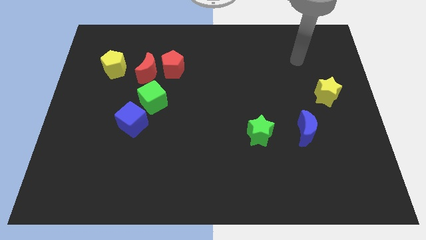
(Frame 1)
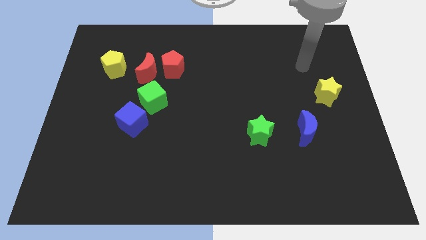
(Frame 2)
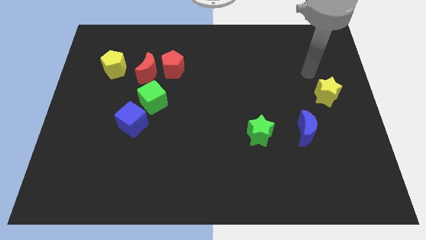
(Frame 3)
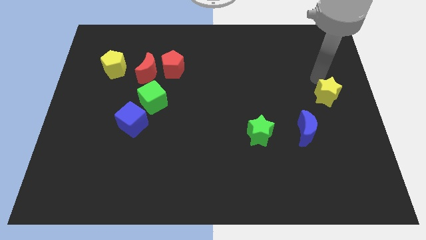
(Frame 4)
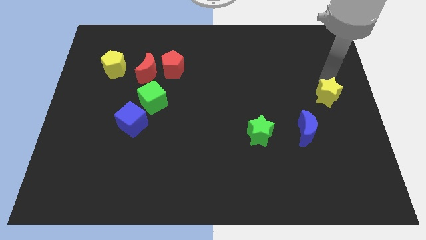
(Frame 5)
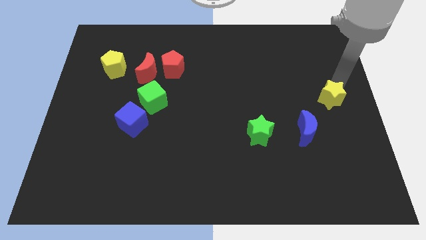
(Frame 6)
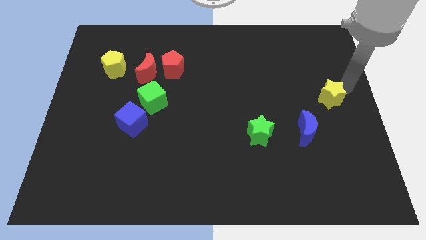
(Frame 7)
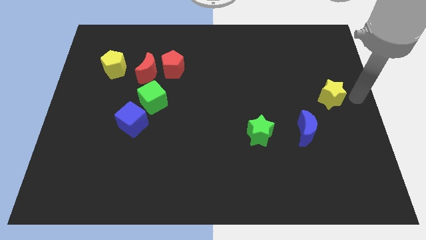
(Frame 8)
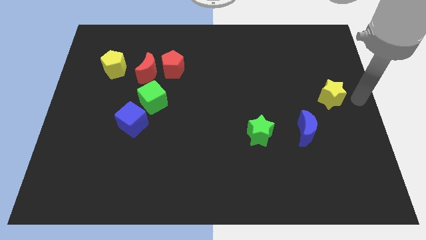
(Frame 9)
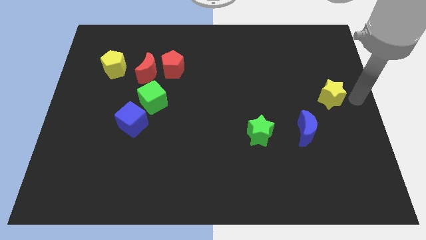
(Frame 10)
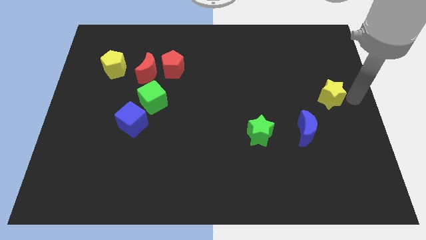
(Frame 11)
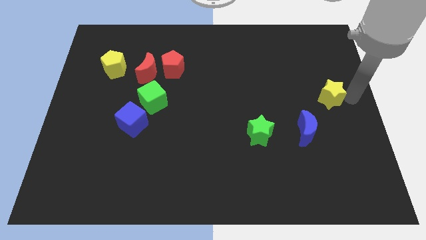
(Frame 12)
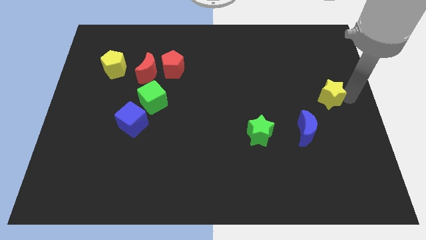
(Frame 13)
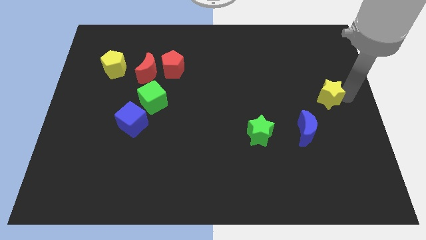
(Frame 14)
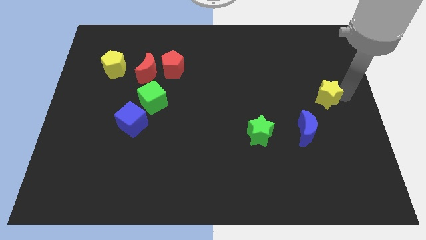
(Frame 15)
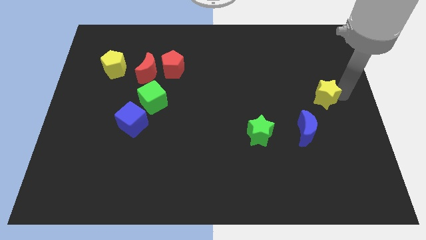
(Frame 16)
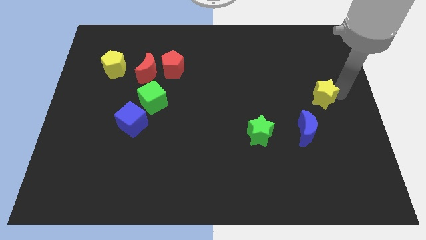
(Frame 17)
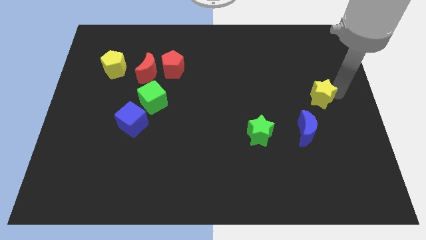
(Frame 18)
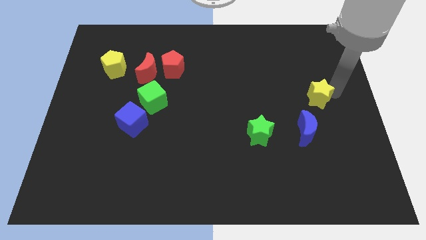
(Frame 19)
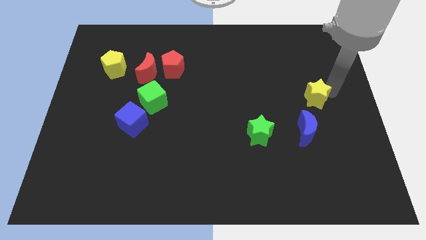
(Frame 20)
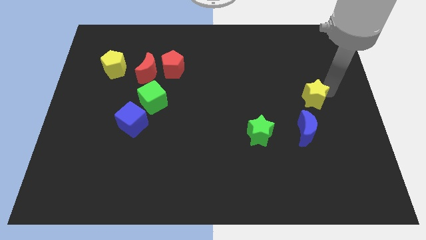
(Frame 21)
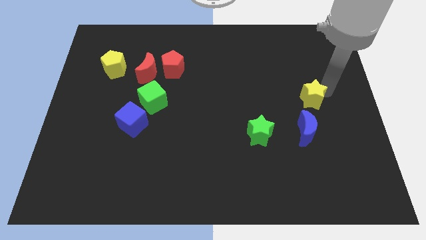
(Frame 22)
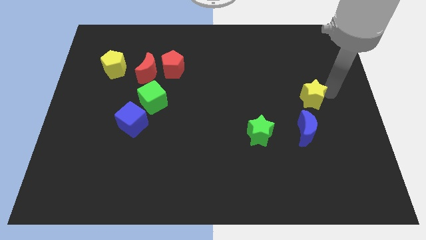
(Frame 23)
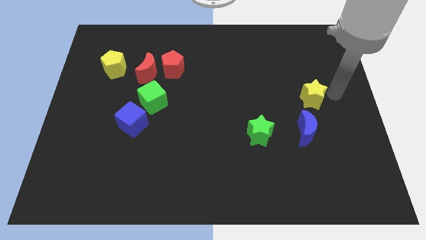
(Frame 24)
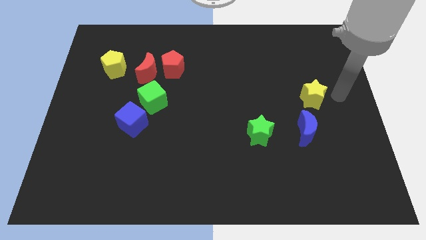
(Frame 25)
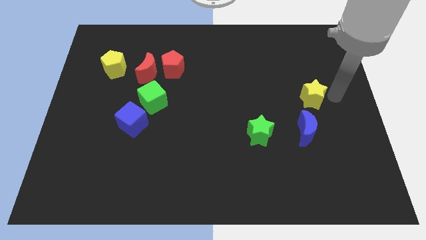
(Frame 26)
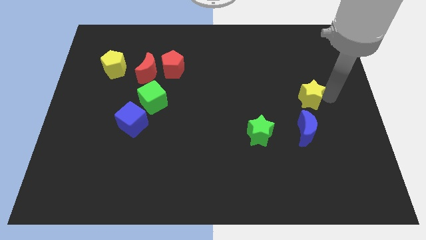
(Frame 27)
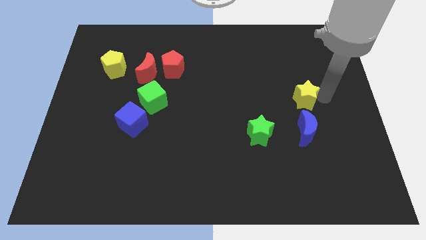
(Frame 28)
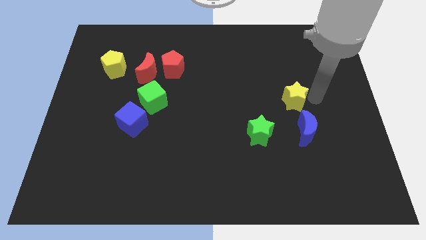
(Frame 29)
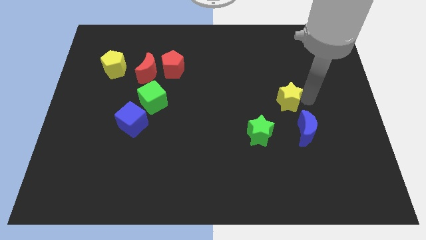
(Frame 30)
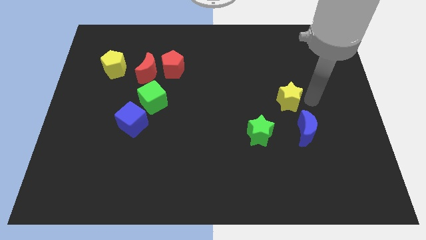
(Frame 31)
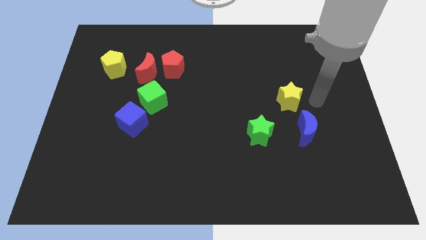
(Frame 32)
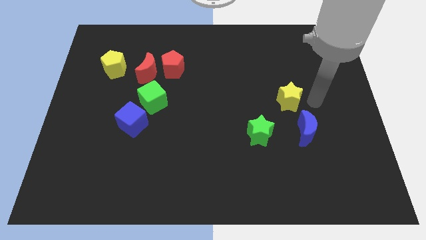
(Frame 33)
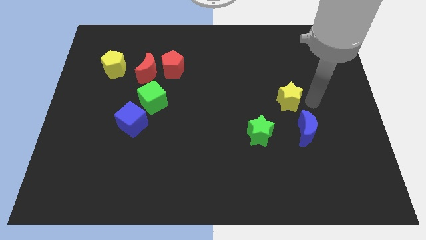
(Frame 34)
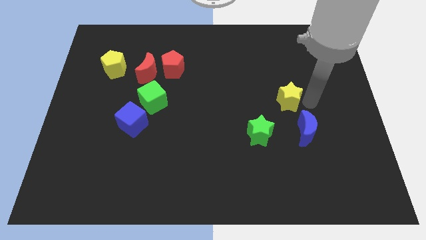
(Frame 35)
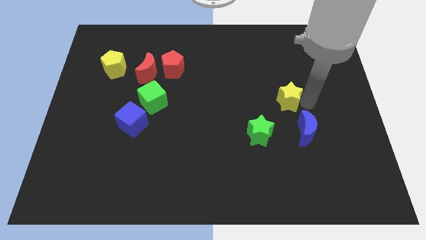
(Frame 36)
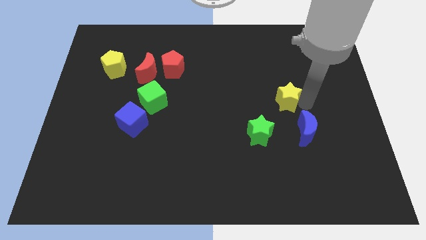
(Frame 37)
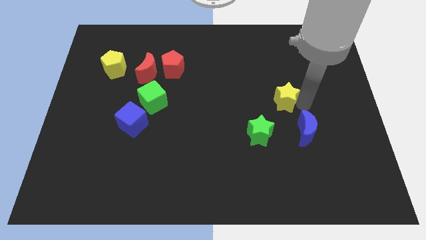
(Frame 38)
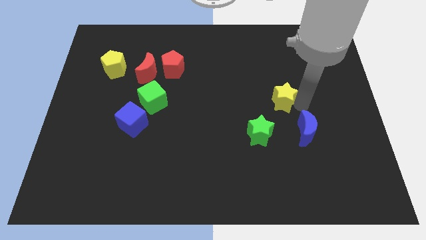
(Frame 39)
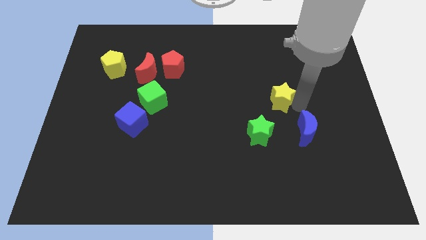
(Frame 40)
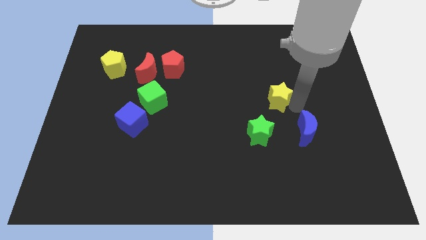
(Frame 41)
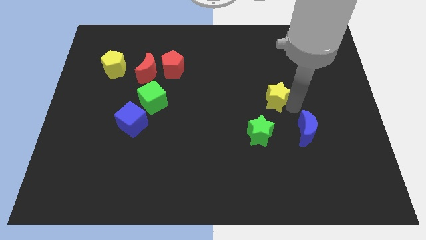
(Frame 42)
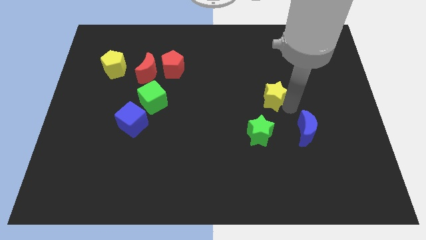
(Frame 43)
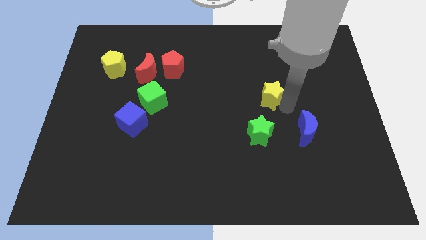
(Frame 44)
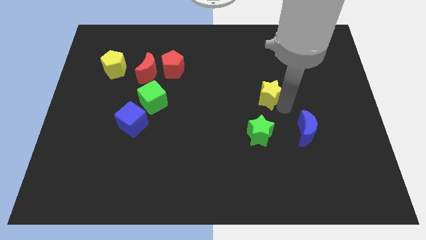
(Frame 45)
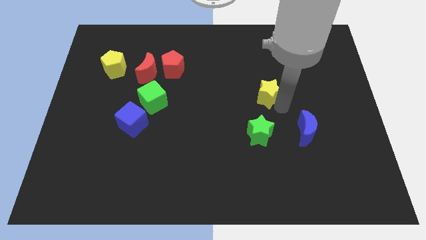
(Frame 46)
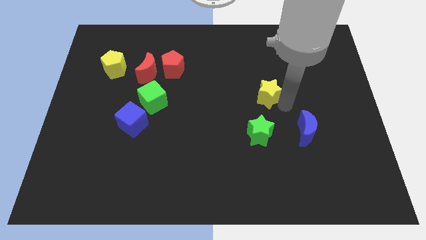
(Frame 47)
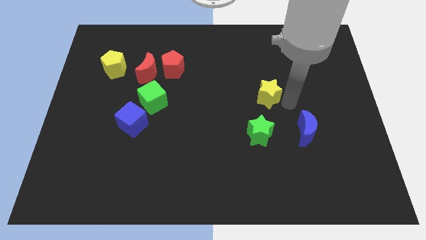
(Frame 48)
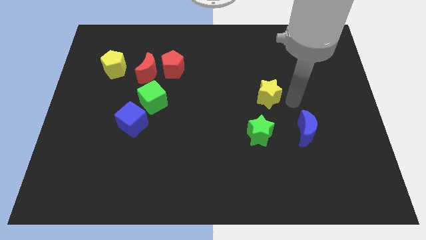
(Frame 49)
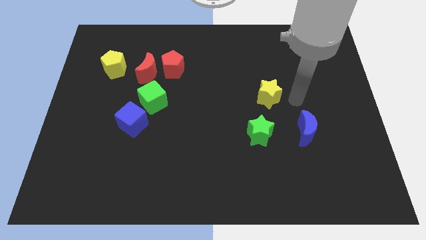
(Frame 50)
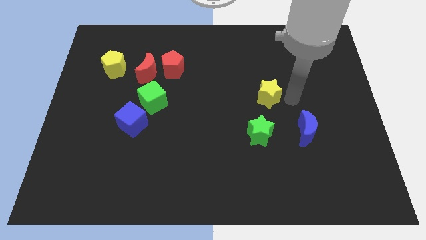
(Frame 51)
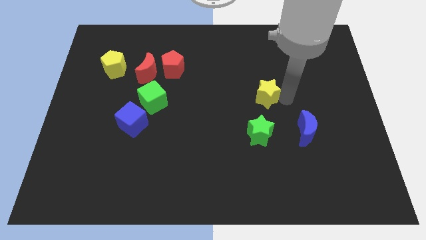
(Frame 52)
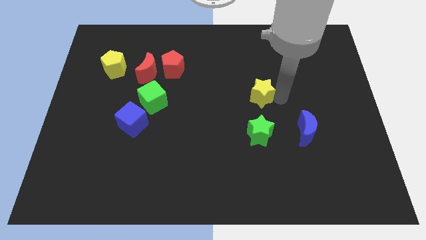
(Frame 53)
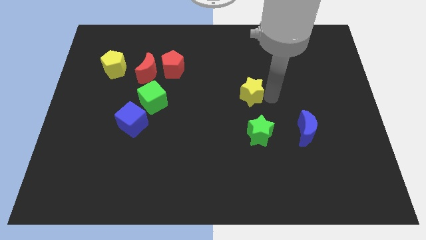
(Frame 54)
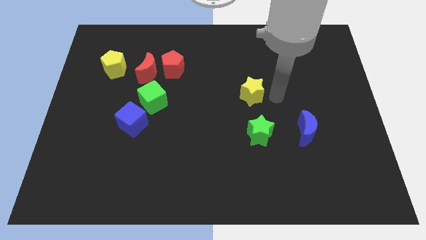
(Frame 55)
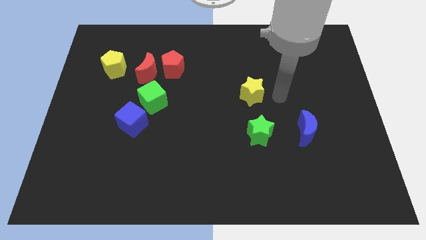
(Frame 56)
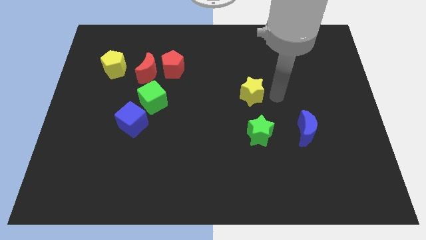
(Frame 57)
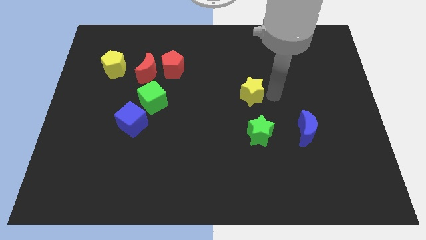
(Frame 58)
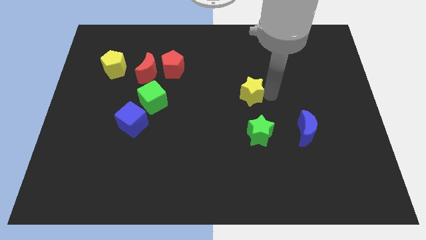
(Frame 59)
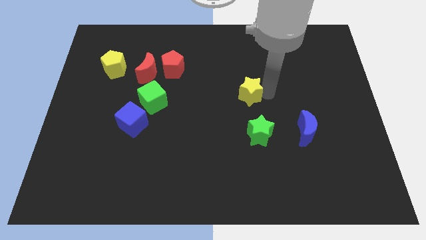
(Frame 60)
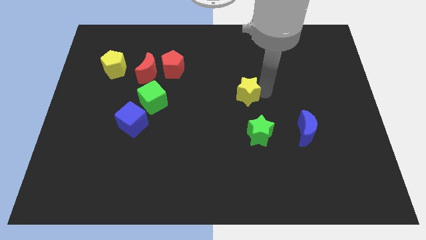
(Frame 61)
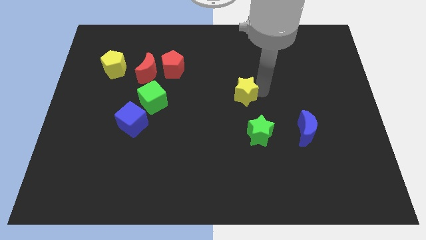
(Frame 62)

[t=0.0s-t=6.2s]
slide the yellow star left

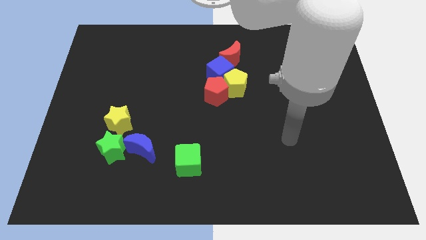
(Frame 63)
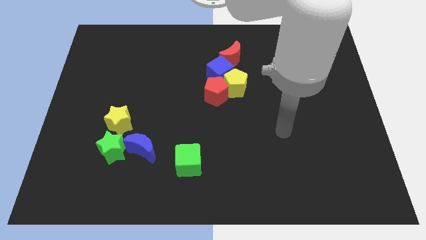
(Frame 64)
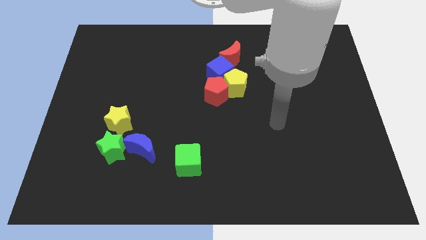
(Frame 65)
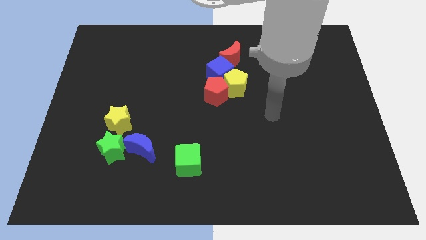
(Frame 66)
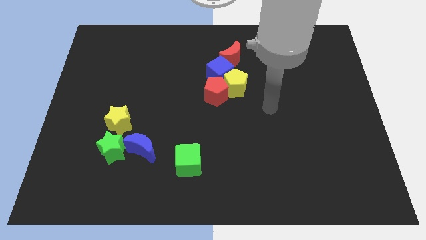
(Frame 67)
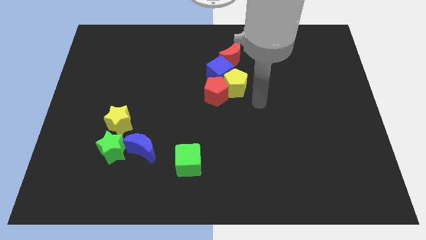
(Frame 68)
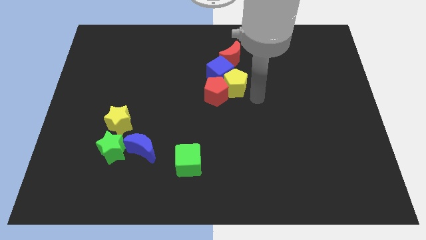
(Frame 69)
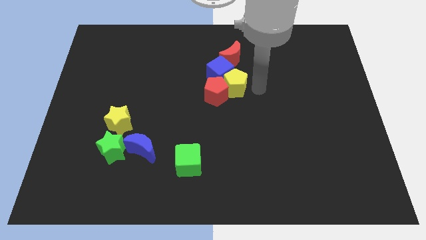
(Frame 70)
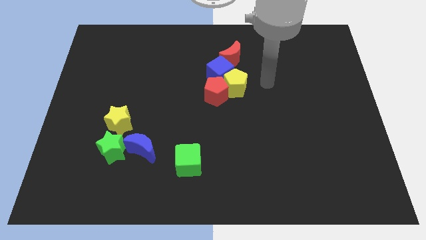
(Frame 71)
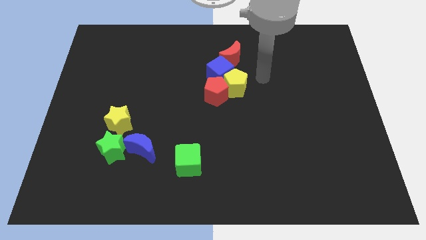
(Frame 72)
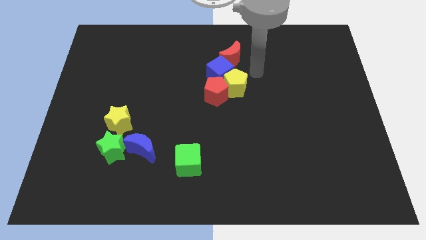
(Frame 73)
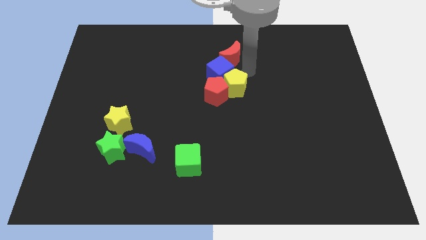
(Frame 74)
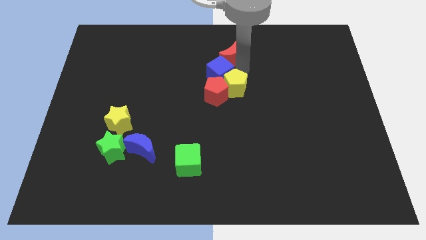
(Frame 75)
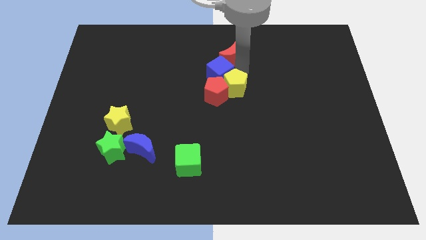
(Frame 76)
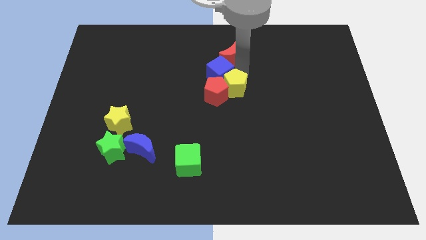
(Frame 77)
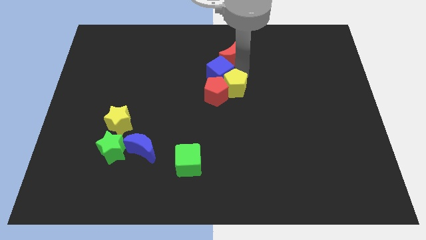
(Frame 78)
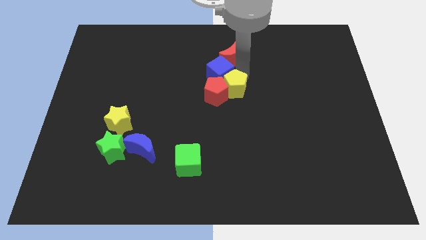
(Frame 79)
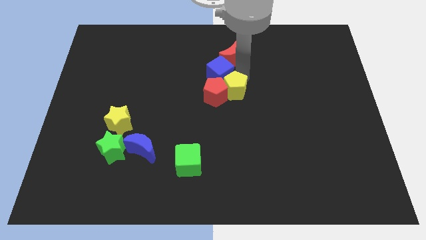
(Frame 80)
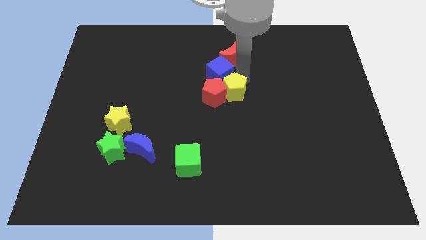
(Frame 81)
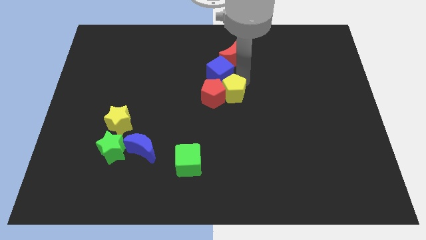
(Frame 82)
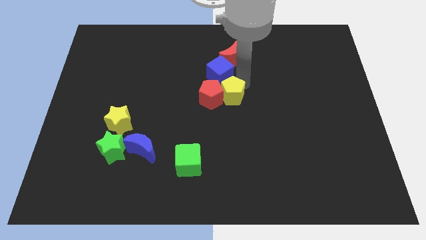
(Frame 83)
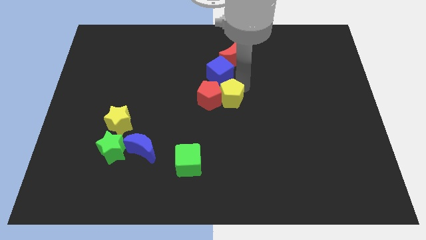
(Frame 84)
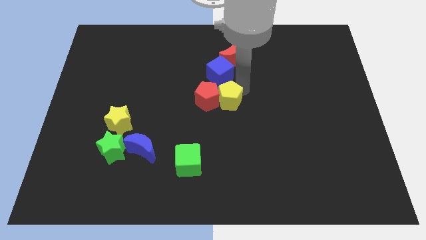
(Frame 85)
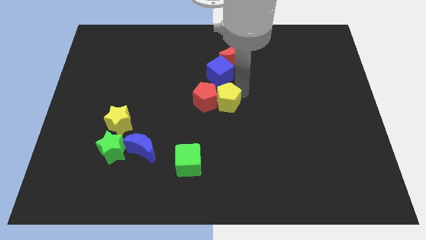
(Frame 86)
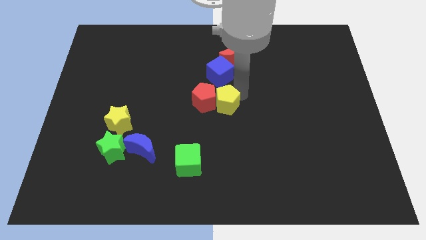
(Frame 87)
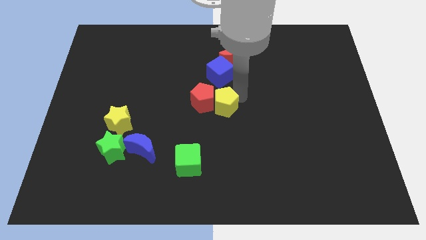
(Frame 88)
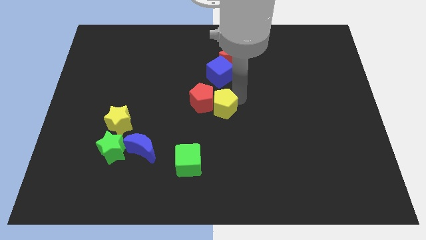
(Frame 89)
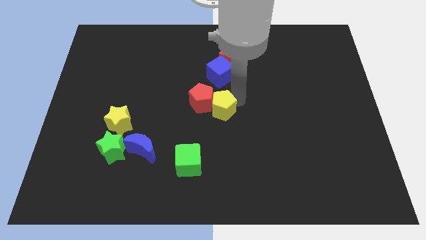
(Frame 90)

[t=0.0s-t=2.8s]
slightly move the yellow pentagon downwards and then to the left
